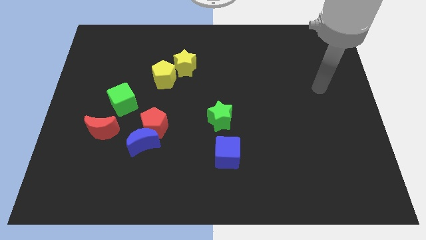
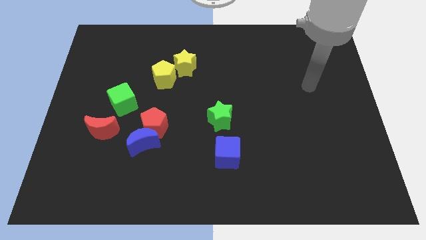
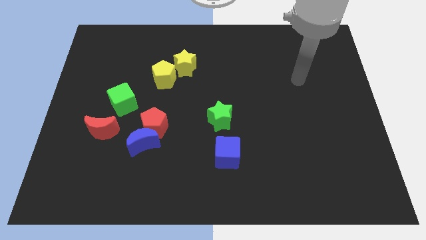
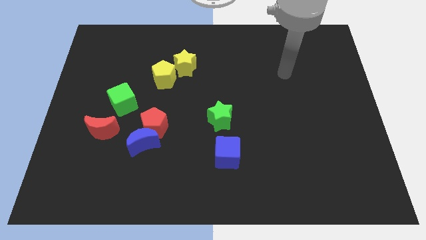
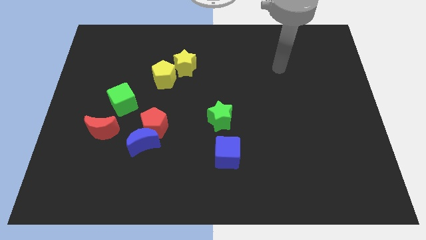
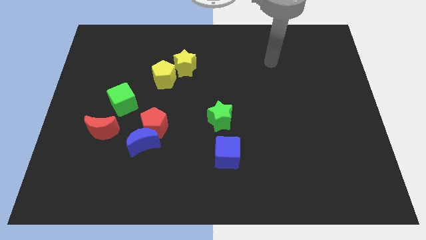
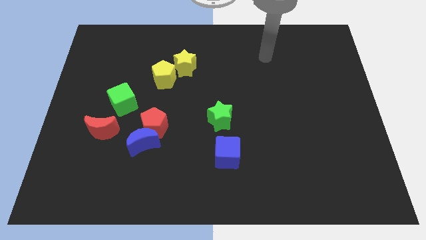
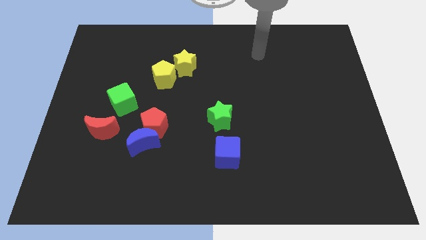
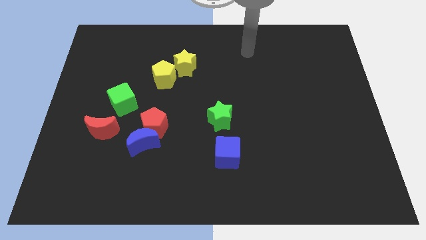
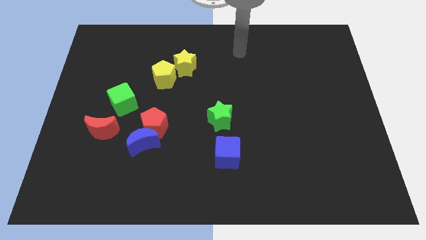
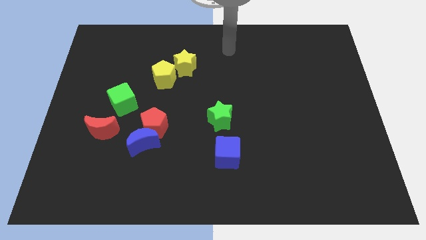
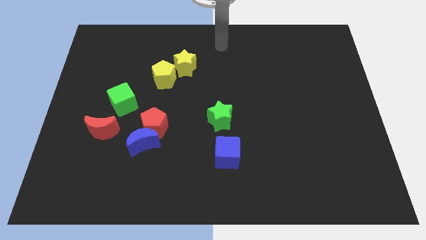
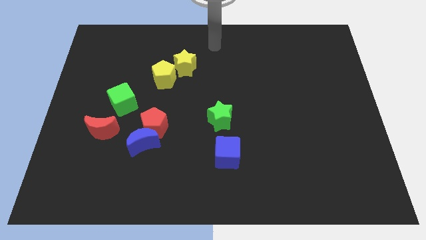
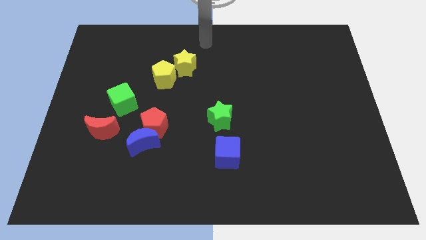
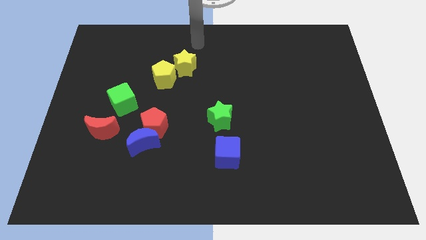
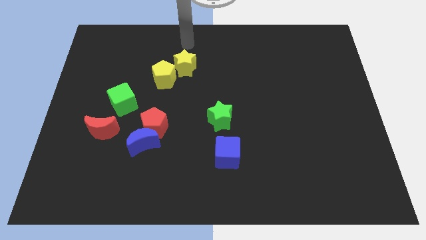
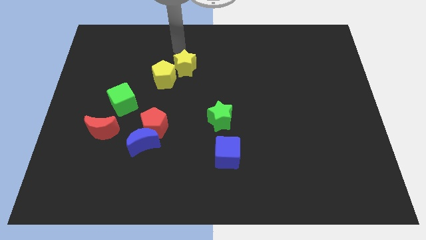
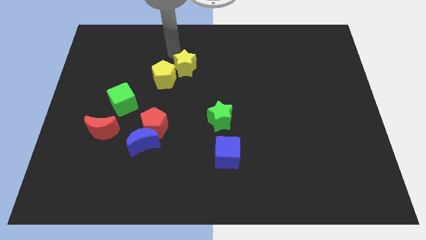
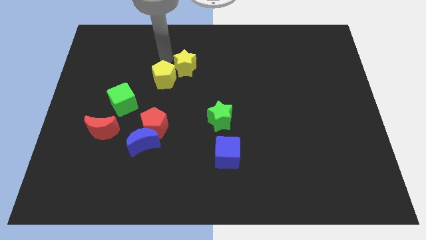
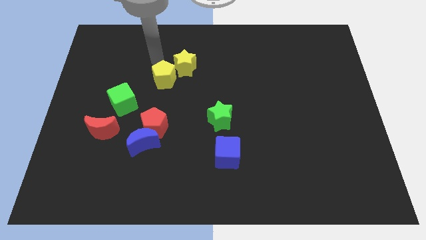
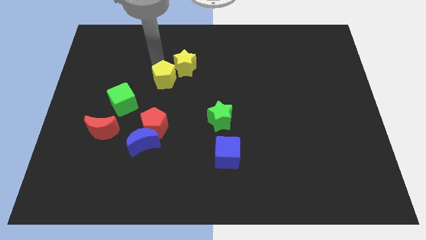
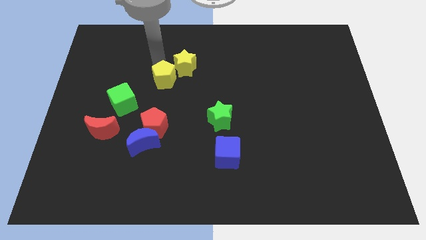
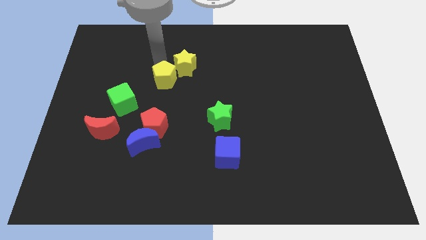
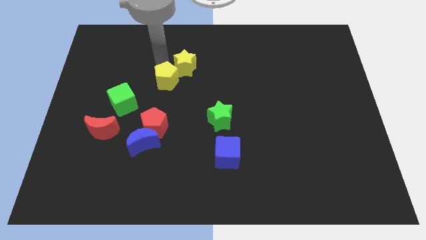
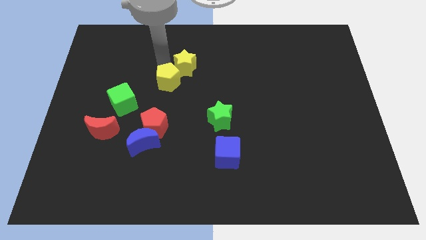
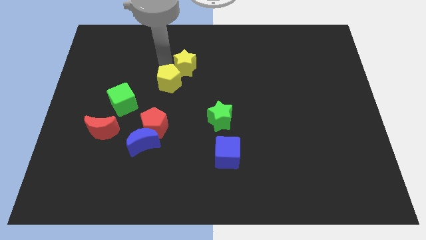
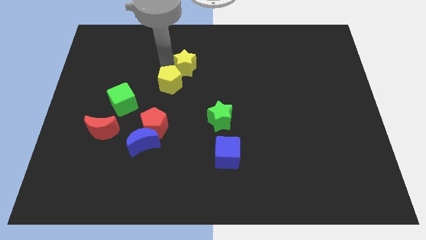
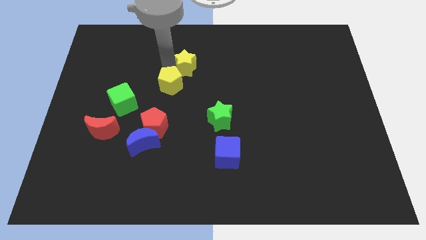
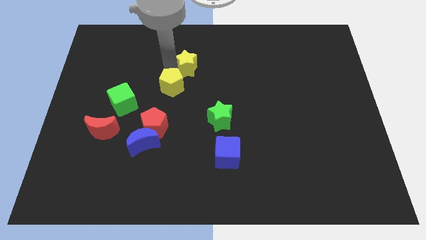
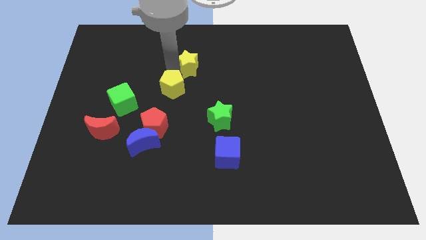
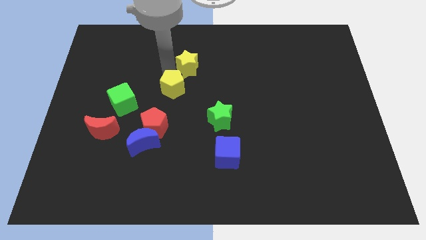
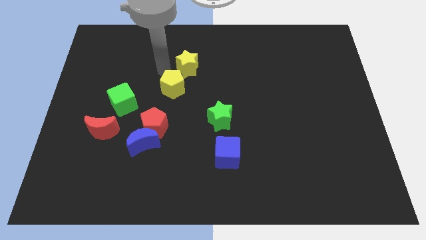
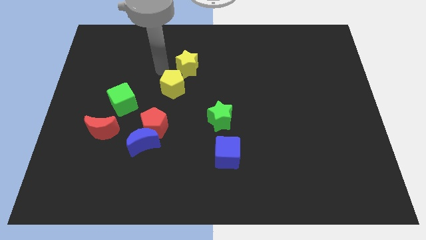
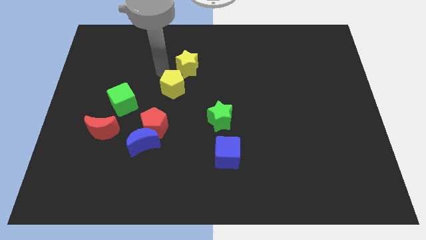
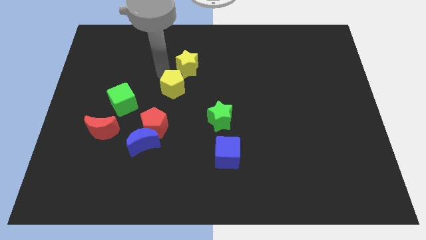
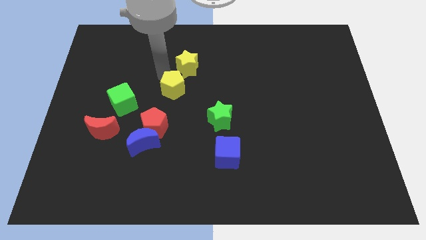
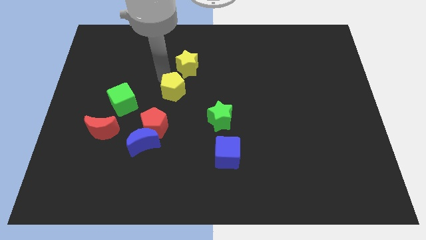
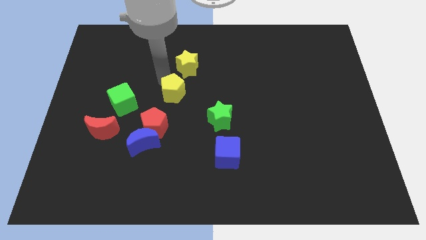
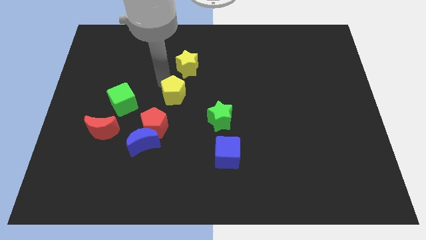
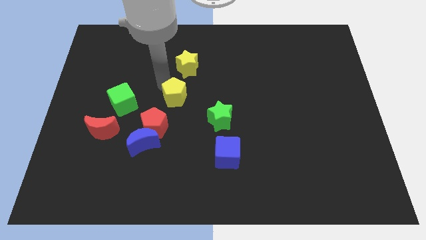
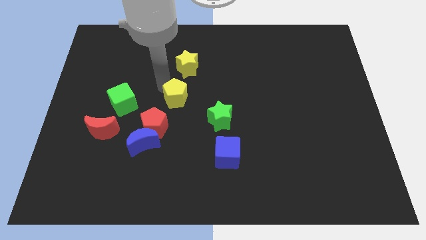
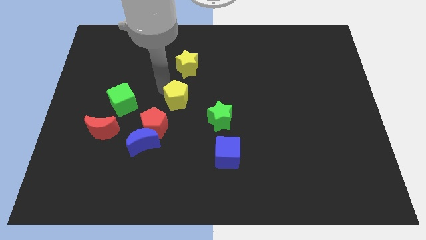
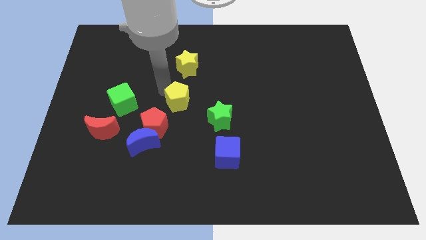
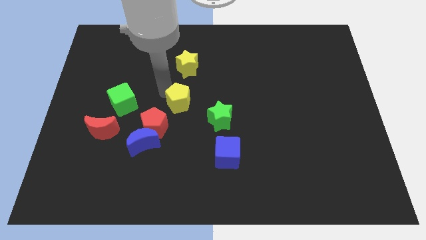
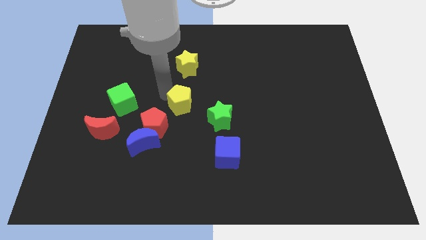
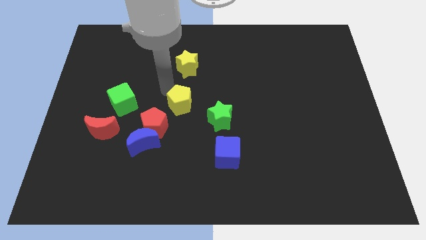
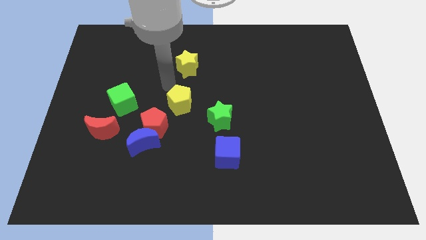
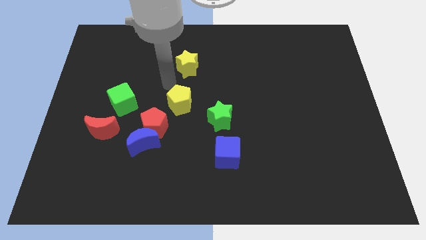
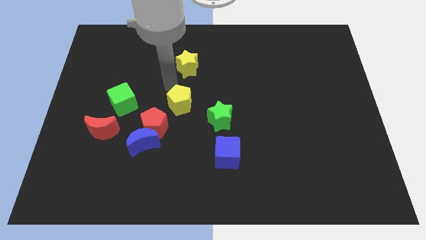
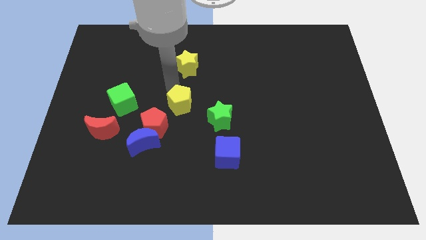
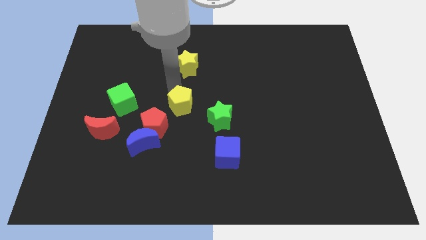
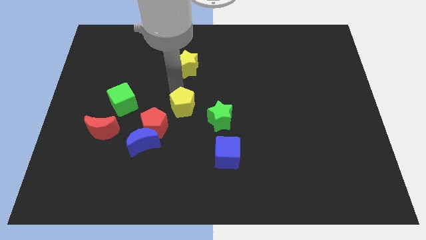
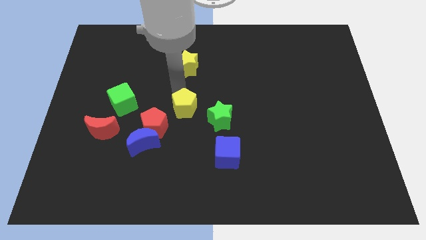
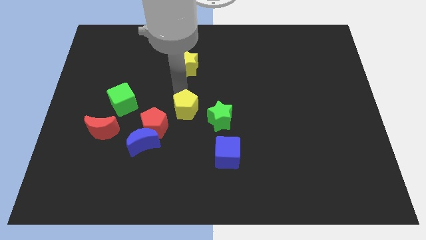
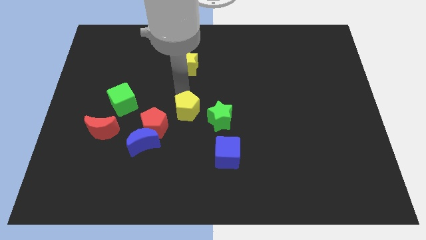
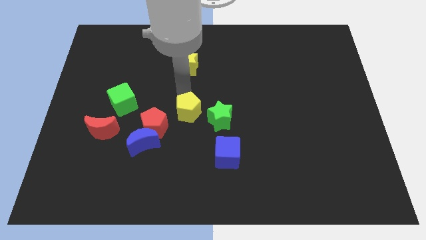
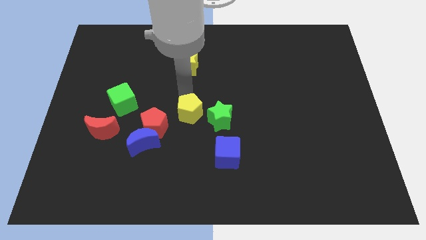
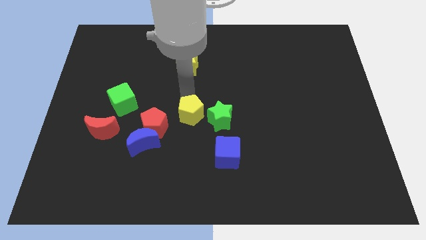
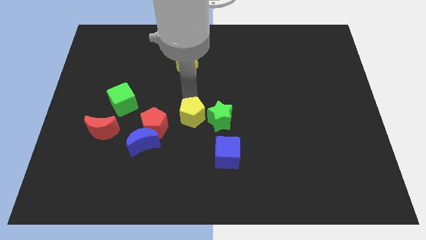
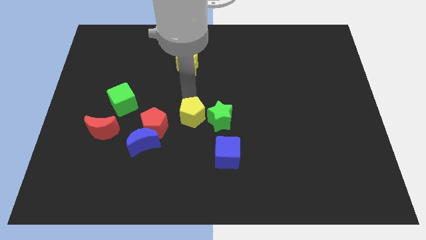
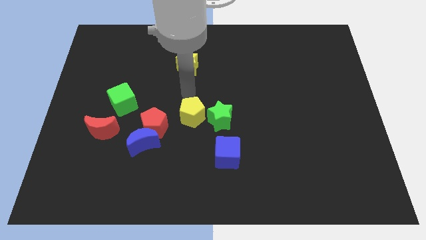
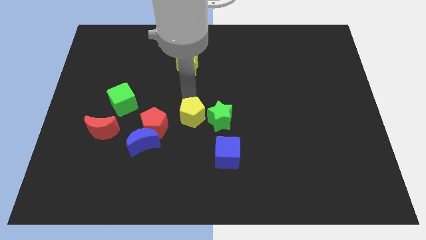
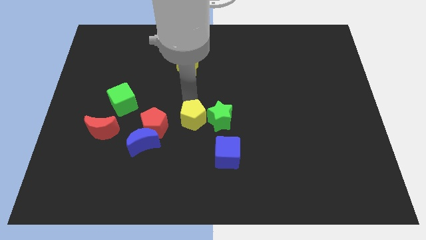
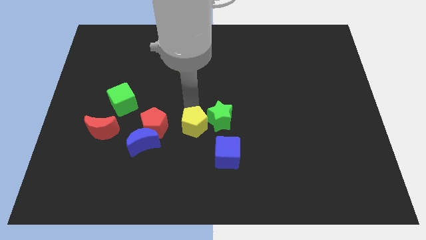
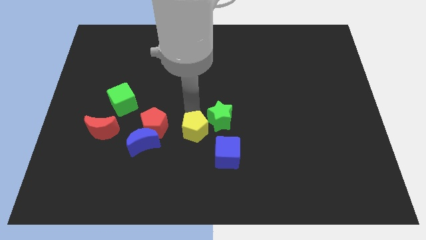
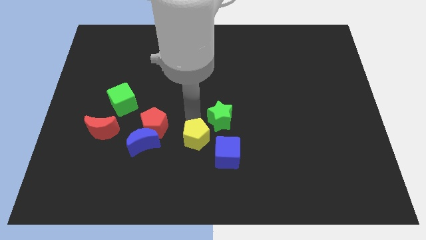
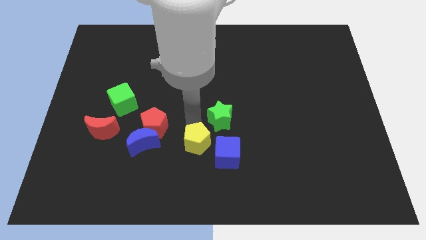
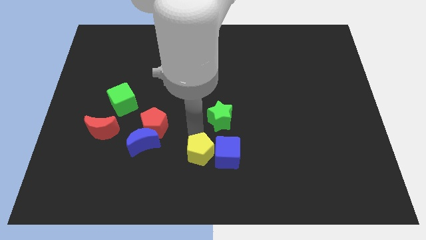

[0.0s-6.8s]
push the yellow pentagon diagonally down and to the left of the blue cube
